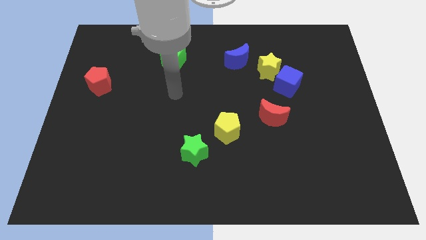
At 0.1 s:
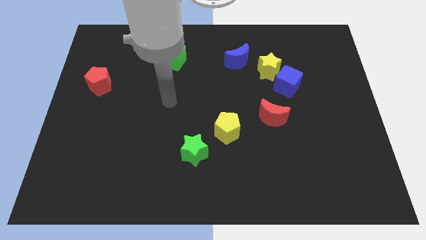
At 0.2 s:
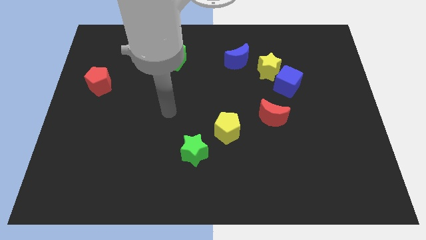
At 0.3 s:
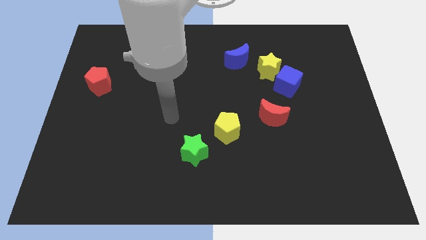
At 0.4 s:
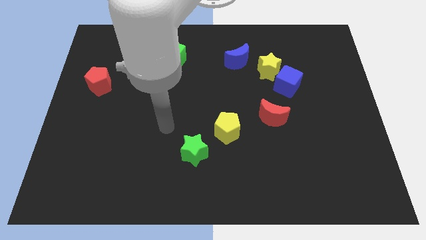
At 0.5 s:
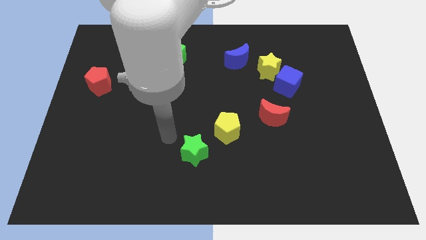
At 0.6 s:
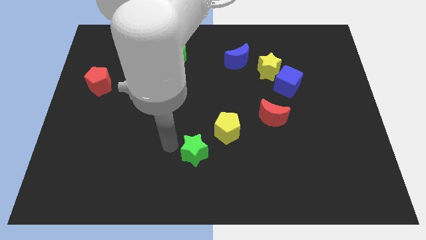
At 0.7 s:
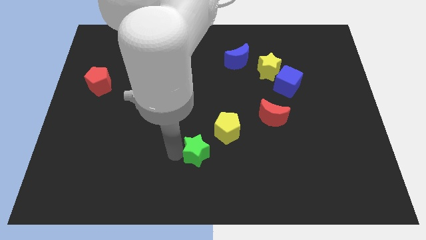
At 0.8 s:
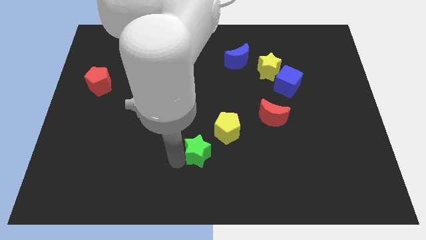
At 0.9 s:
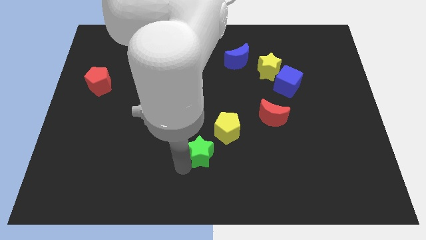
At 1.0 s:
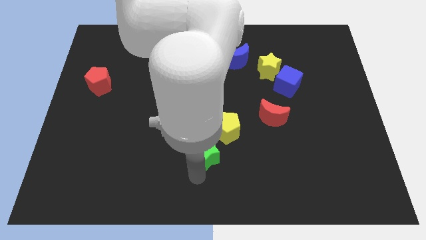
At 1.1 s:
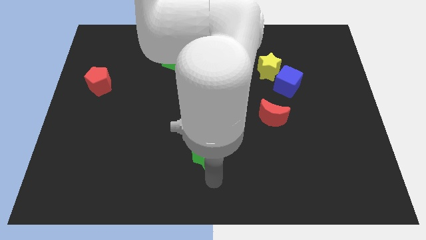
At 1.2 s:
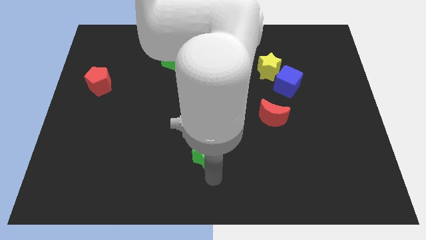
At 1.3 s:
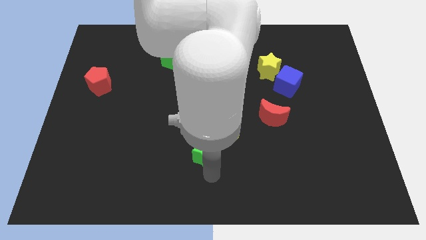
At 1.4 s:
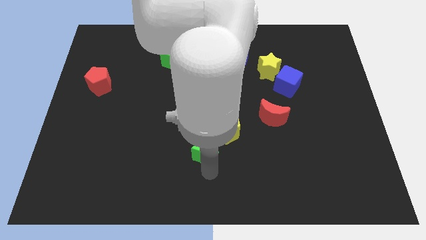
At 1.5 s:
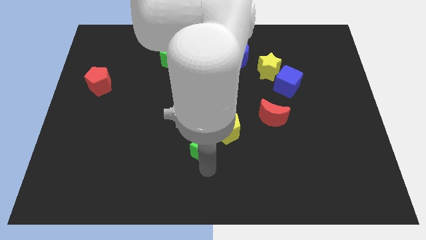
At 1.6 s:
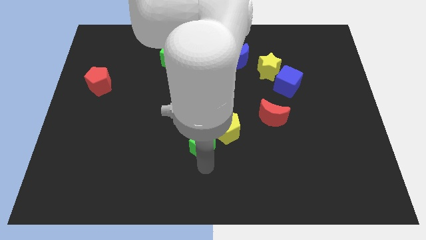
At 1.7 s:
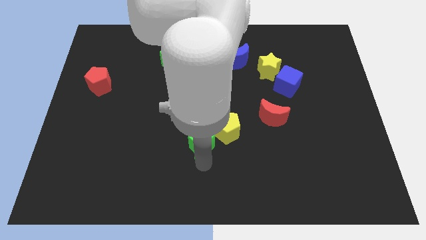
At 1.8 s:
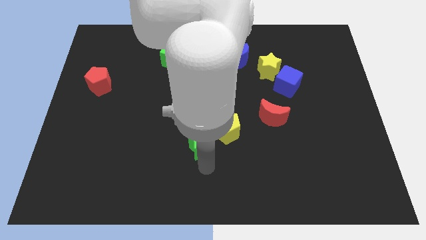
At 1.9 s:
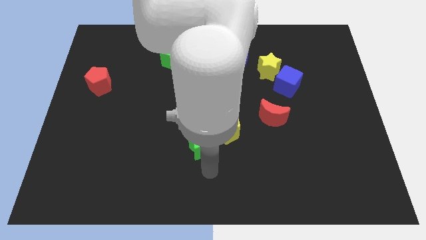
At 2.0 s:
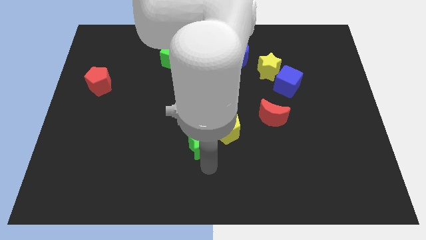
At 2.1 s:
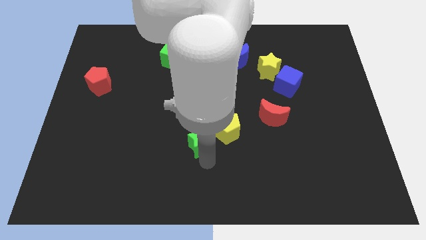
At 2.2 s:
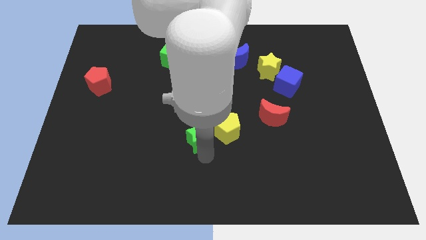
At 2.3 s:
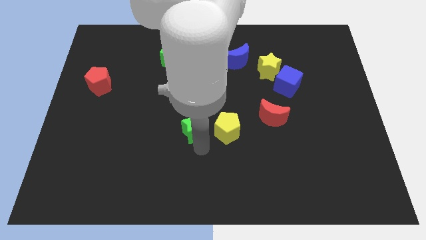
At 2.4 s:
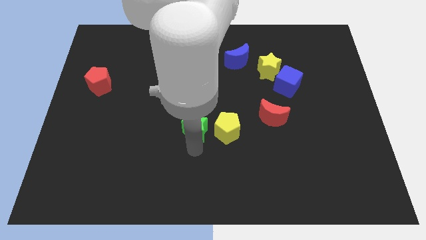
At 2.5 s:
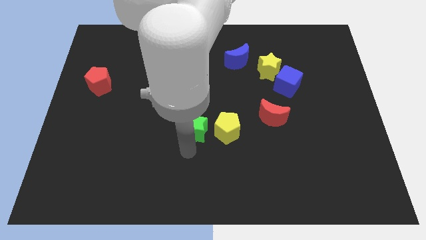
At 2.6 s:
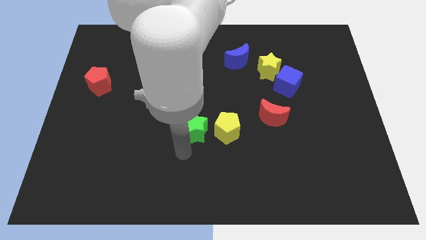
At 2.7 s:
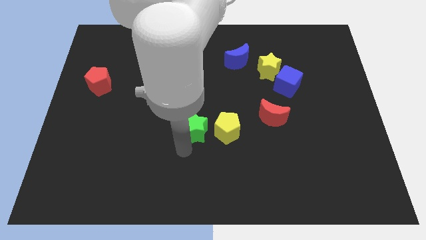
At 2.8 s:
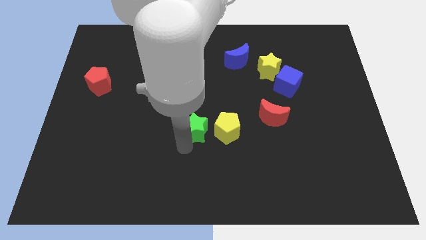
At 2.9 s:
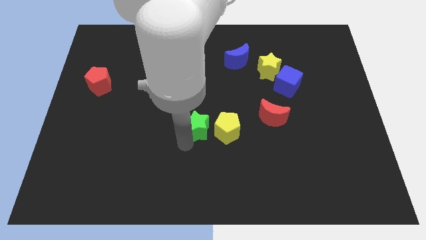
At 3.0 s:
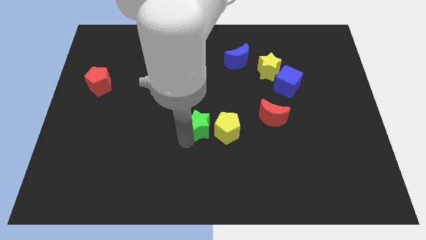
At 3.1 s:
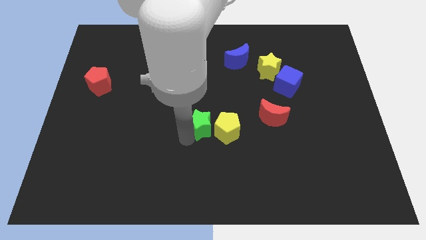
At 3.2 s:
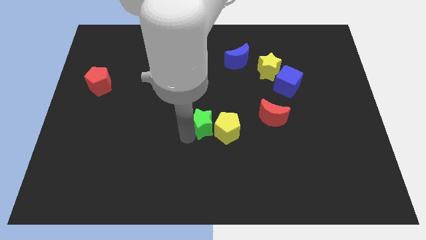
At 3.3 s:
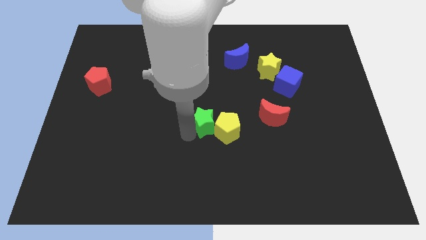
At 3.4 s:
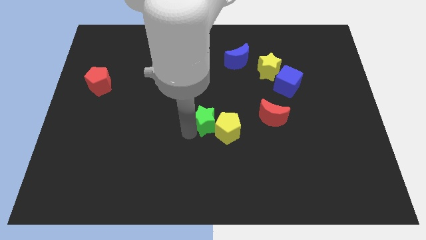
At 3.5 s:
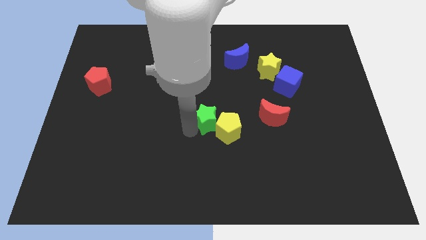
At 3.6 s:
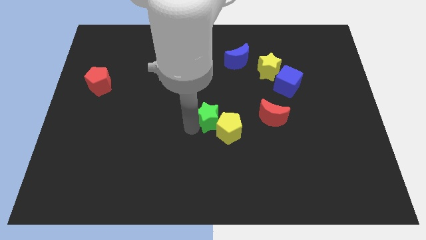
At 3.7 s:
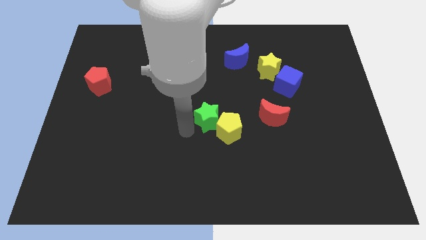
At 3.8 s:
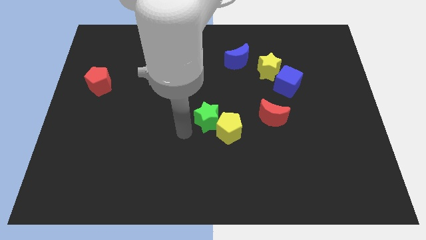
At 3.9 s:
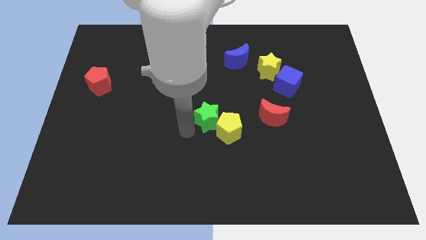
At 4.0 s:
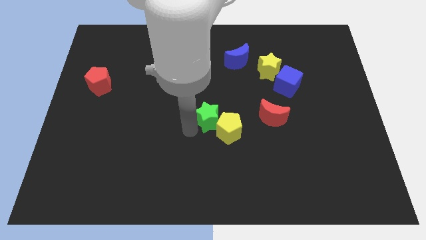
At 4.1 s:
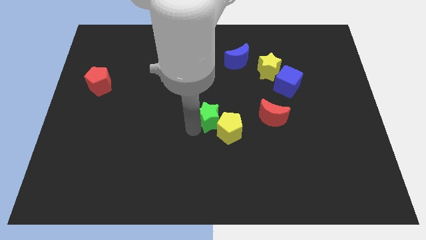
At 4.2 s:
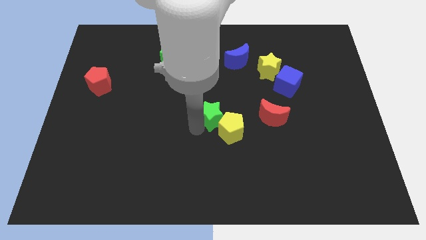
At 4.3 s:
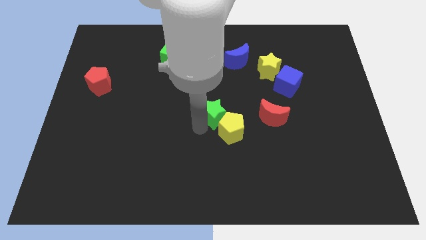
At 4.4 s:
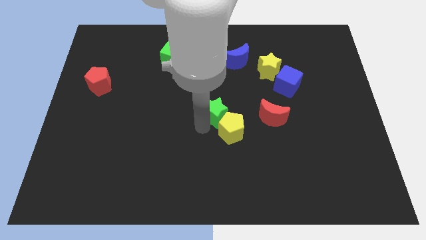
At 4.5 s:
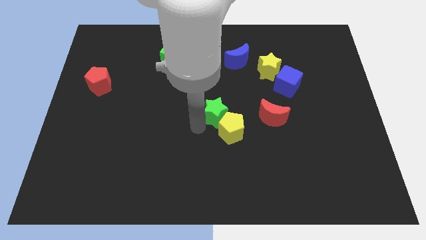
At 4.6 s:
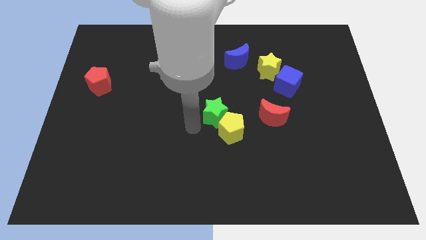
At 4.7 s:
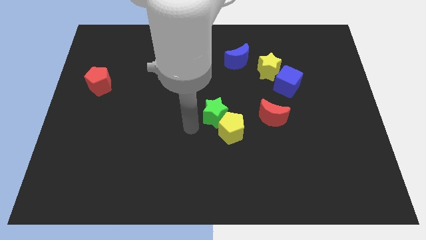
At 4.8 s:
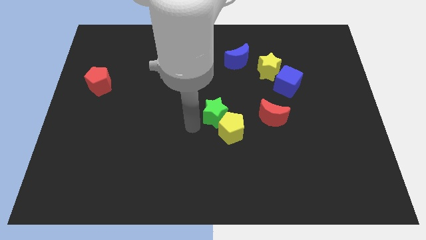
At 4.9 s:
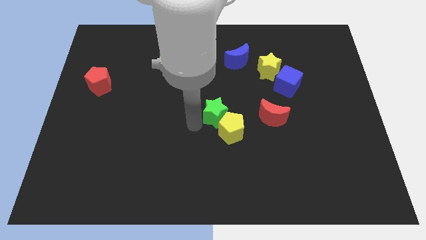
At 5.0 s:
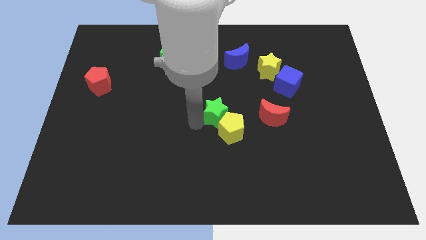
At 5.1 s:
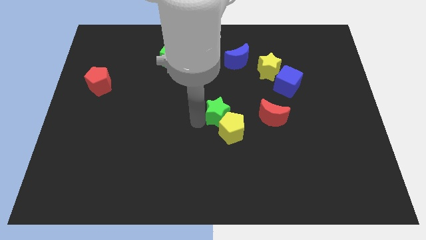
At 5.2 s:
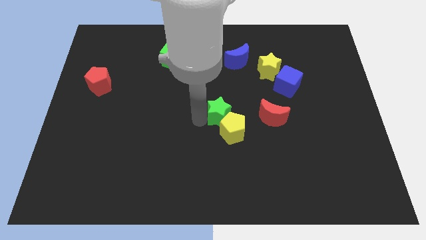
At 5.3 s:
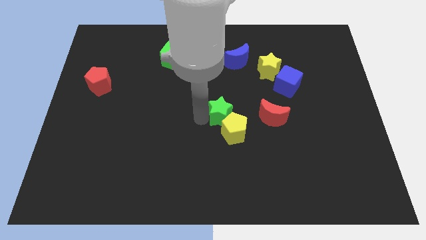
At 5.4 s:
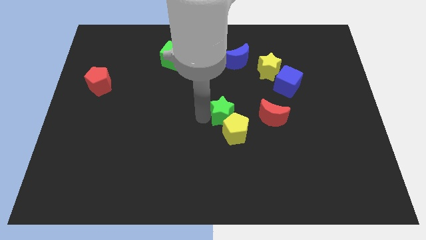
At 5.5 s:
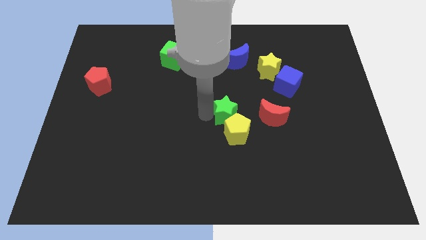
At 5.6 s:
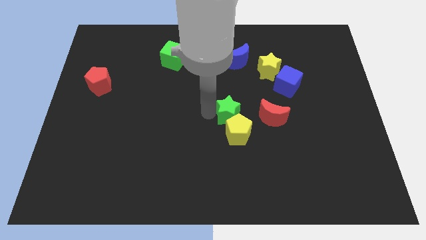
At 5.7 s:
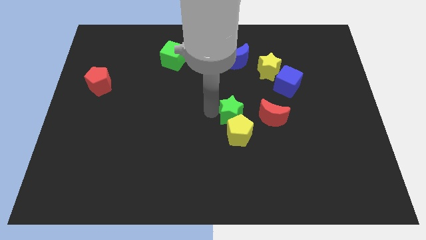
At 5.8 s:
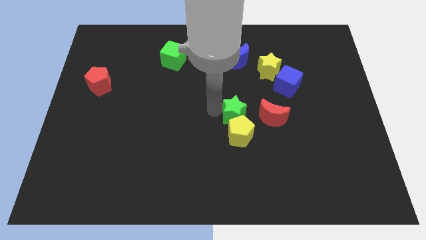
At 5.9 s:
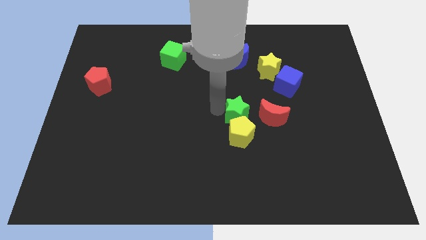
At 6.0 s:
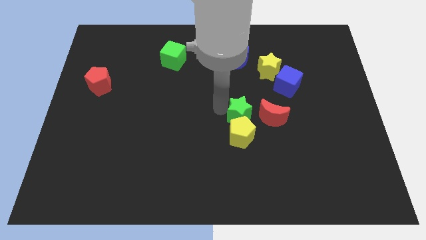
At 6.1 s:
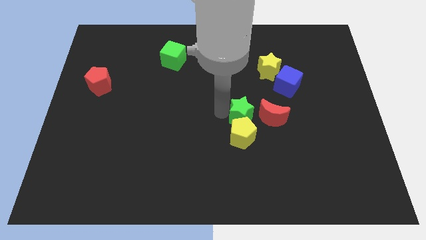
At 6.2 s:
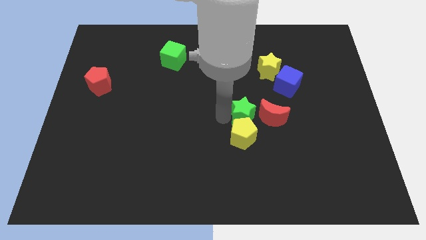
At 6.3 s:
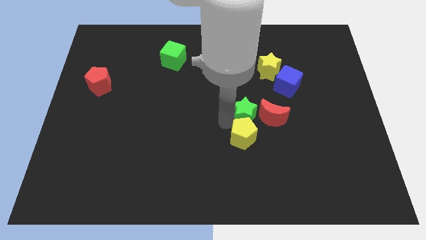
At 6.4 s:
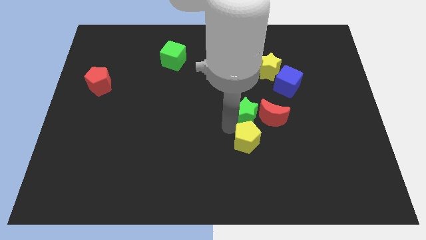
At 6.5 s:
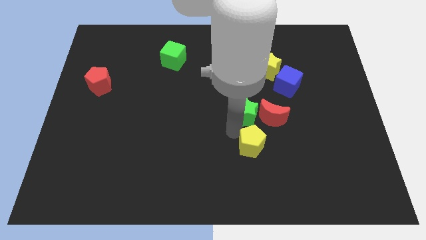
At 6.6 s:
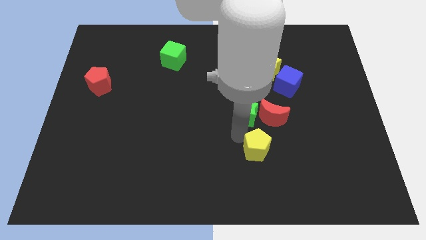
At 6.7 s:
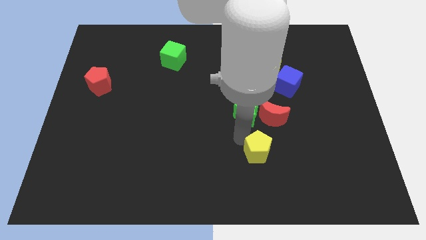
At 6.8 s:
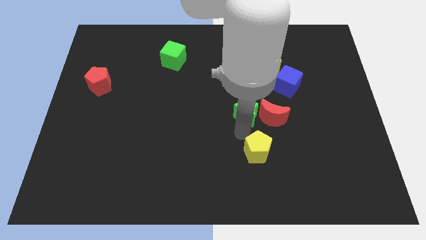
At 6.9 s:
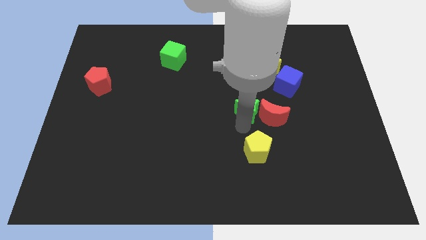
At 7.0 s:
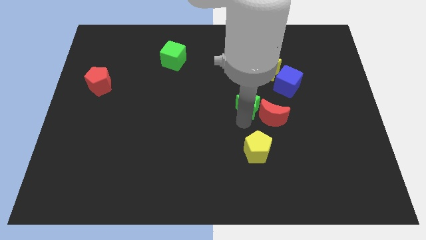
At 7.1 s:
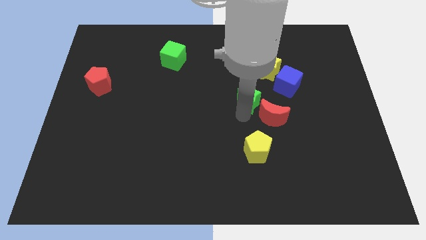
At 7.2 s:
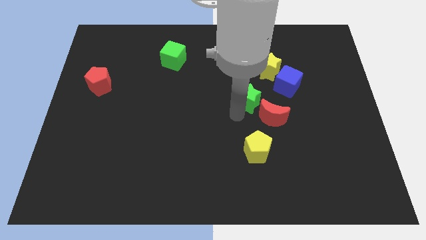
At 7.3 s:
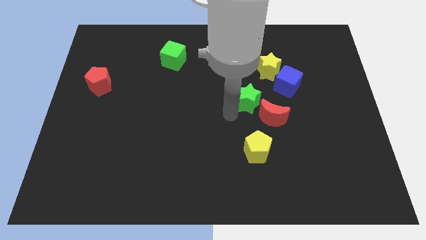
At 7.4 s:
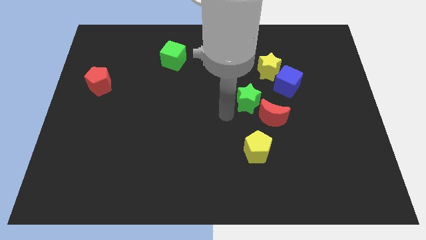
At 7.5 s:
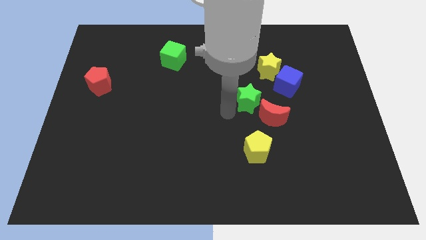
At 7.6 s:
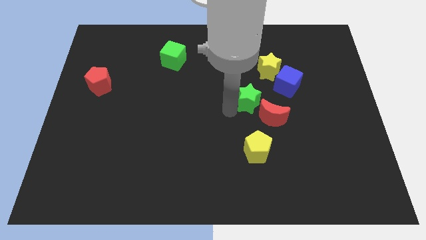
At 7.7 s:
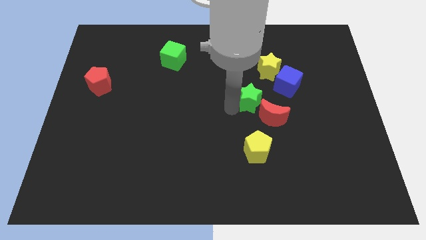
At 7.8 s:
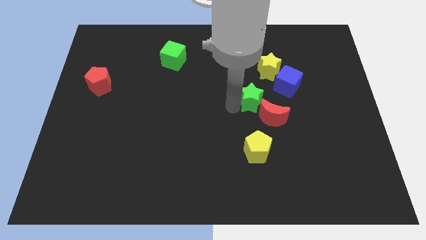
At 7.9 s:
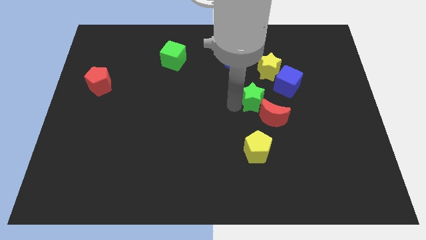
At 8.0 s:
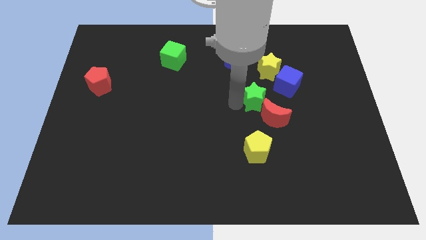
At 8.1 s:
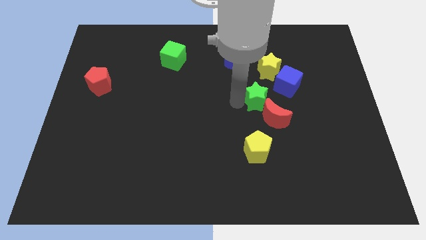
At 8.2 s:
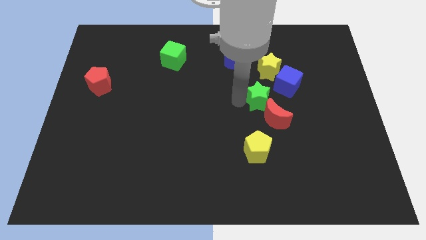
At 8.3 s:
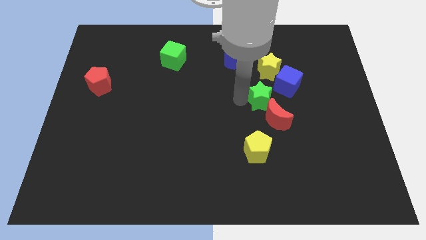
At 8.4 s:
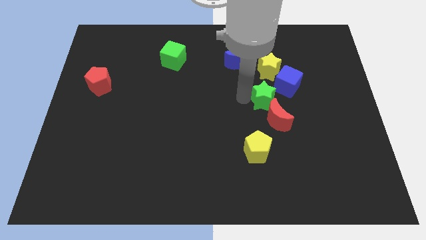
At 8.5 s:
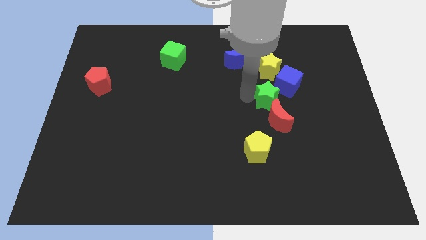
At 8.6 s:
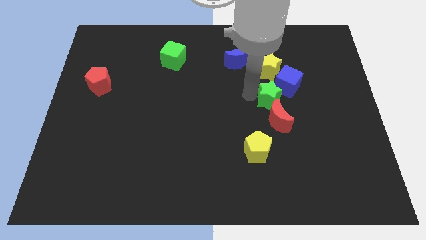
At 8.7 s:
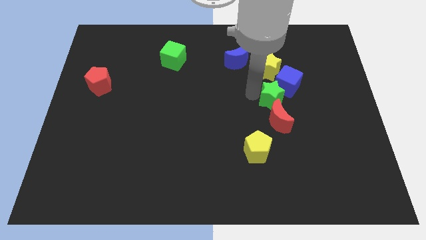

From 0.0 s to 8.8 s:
push the green star close to the blue cube
